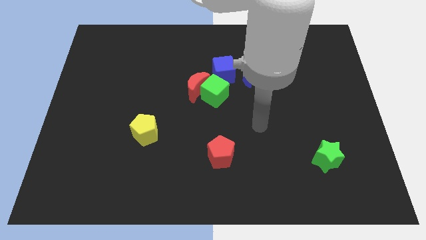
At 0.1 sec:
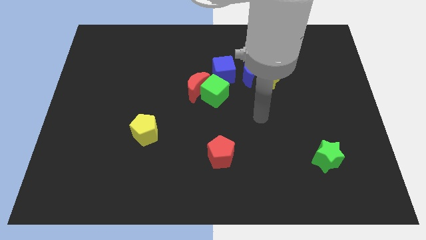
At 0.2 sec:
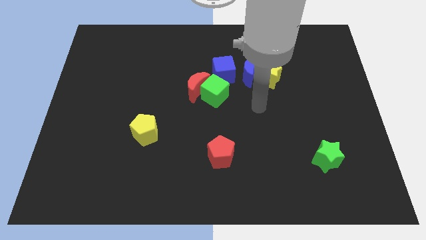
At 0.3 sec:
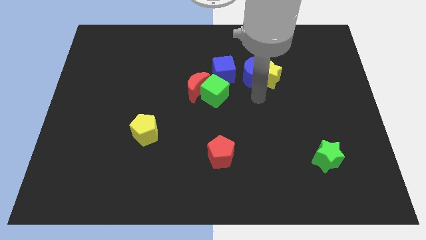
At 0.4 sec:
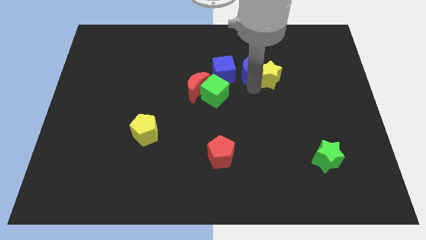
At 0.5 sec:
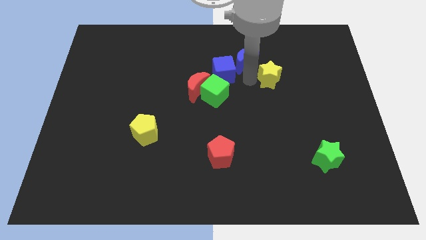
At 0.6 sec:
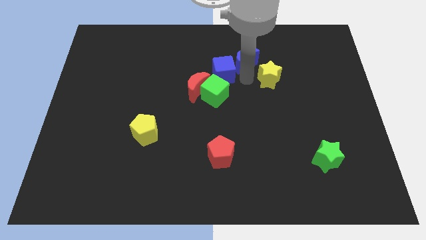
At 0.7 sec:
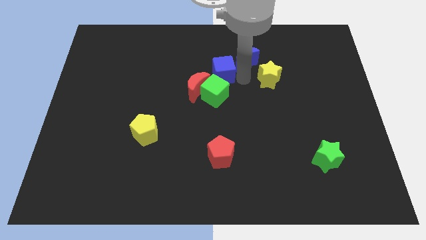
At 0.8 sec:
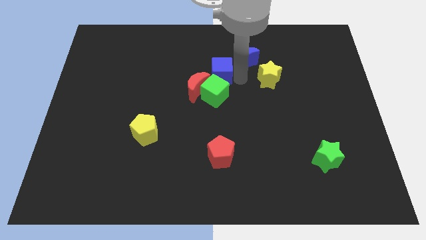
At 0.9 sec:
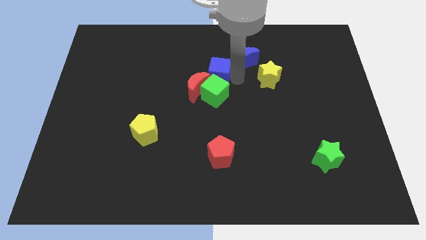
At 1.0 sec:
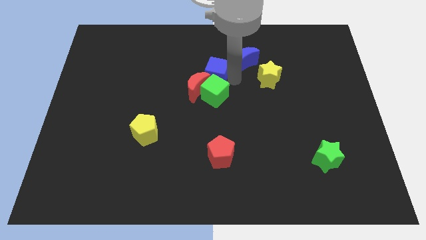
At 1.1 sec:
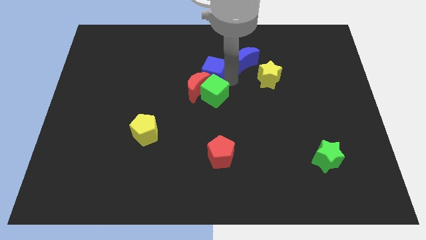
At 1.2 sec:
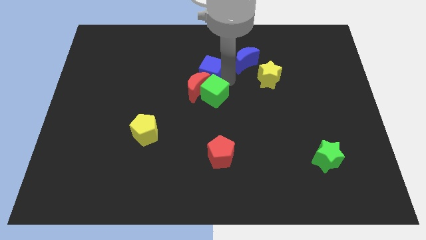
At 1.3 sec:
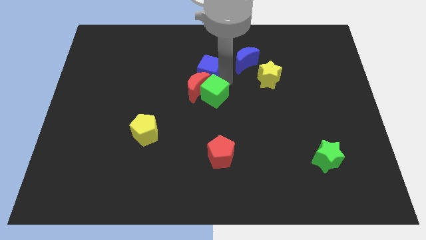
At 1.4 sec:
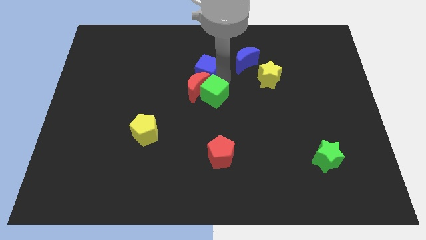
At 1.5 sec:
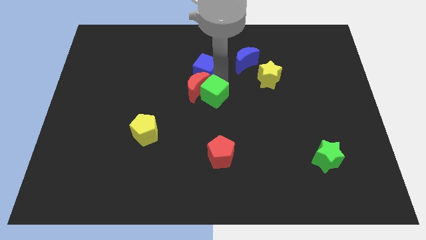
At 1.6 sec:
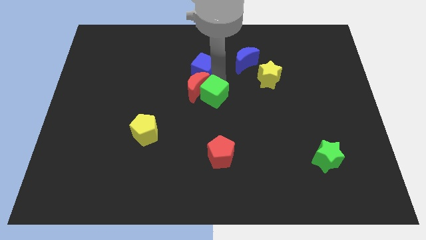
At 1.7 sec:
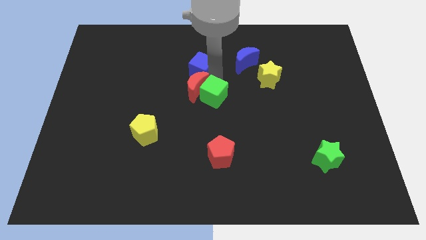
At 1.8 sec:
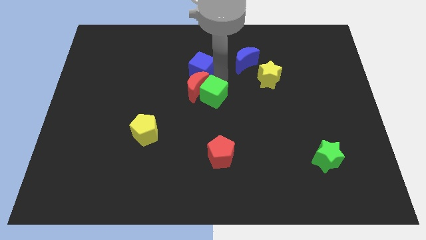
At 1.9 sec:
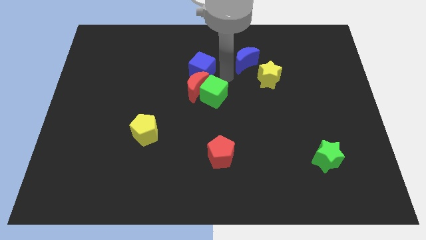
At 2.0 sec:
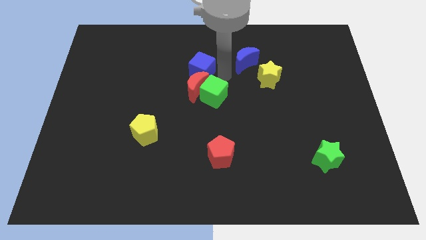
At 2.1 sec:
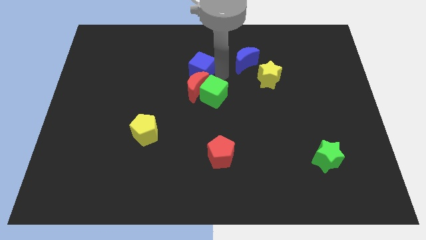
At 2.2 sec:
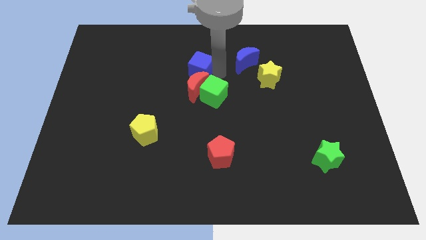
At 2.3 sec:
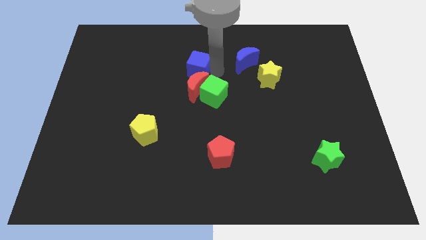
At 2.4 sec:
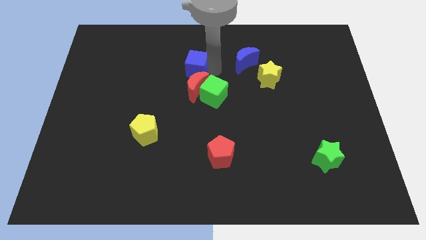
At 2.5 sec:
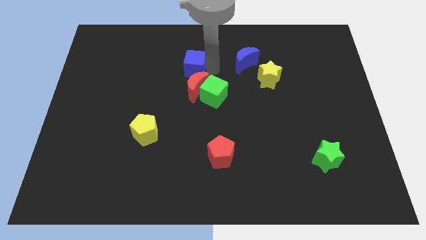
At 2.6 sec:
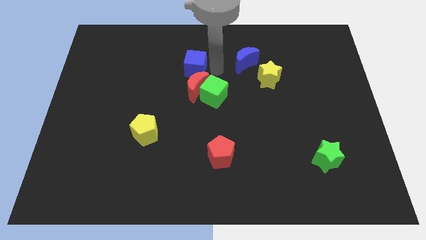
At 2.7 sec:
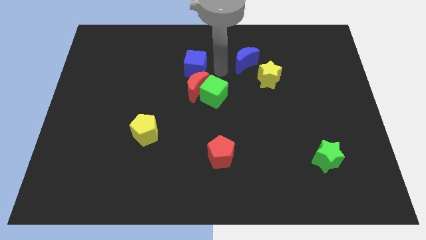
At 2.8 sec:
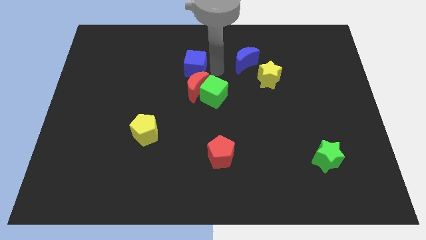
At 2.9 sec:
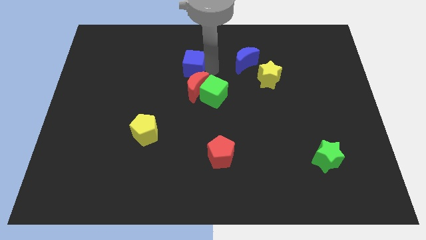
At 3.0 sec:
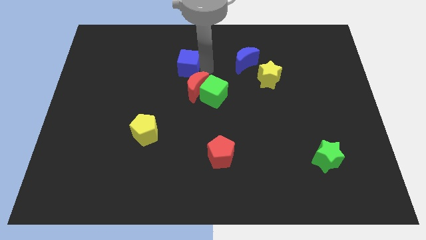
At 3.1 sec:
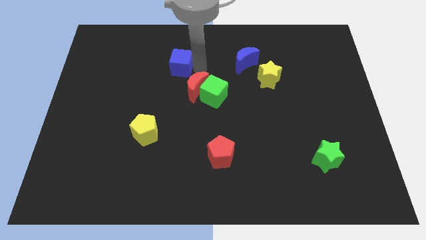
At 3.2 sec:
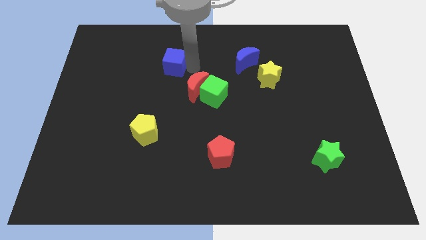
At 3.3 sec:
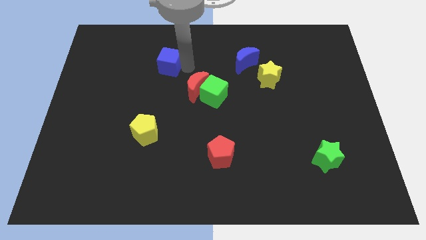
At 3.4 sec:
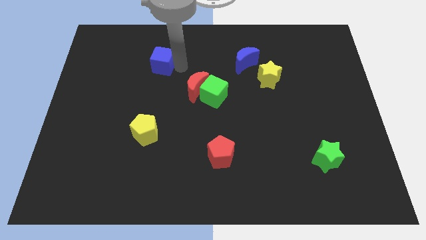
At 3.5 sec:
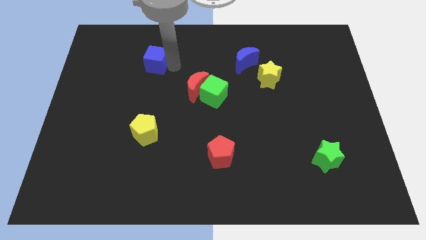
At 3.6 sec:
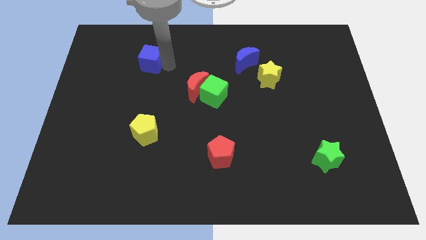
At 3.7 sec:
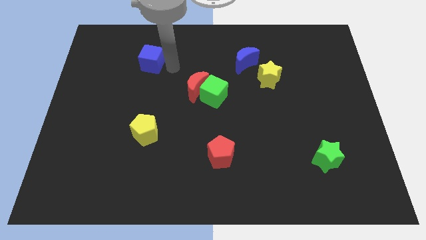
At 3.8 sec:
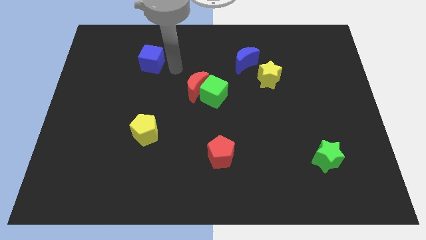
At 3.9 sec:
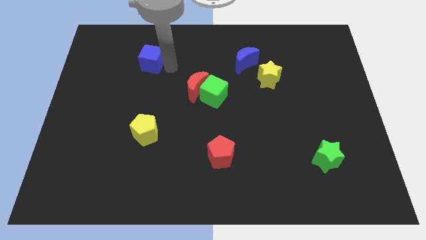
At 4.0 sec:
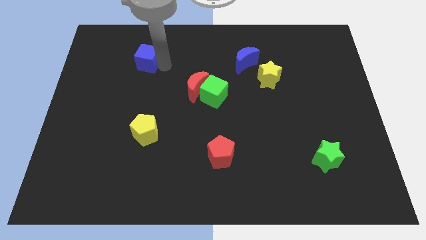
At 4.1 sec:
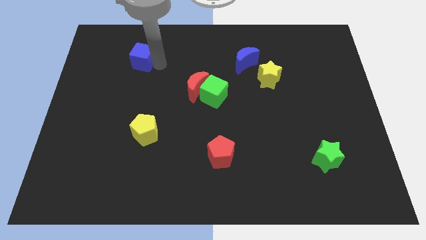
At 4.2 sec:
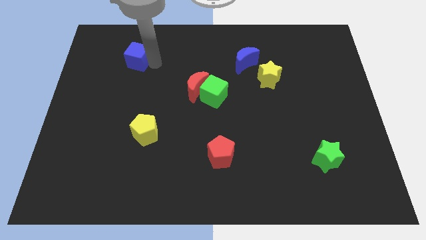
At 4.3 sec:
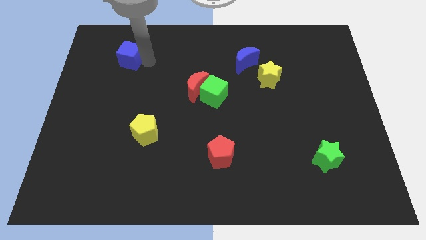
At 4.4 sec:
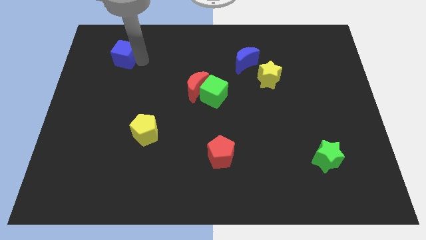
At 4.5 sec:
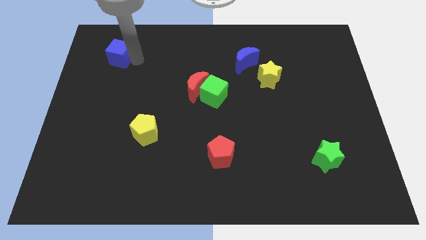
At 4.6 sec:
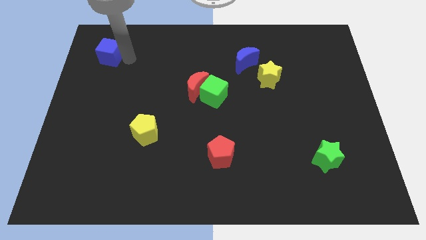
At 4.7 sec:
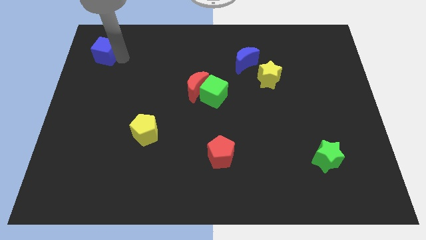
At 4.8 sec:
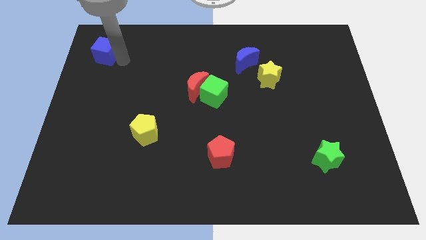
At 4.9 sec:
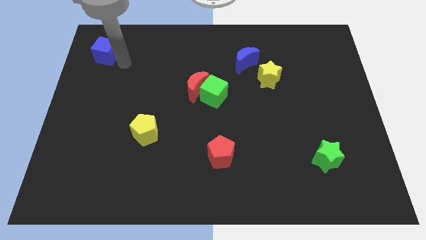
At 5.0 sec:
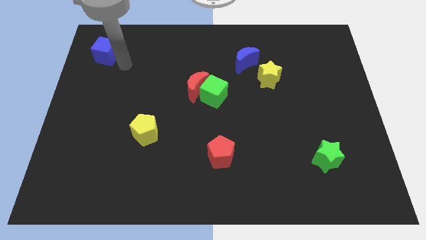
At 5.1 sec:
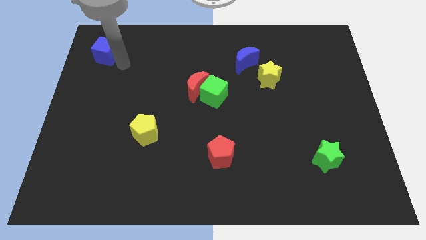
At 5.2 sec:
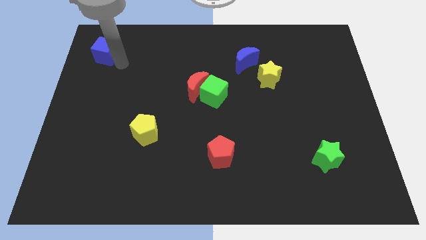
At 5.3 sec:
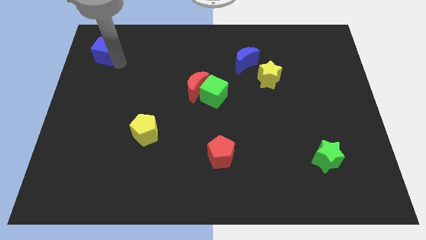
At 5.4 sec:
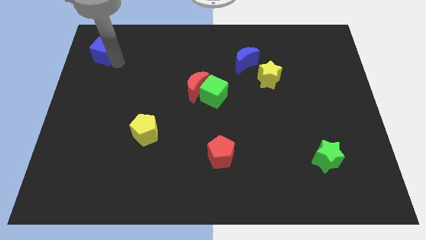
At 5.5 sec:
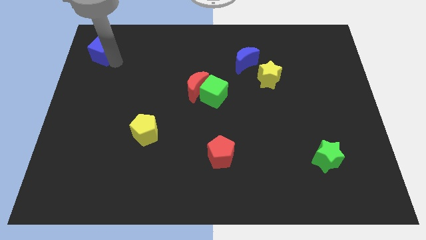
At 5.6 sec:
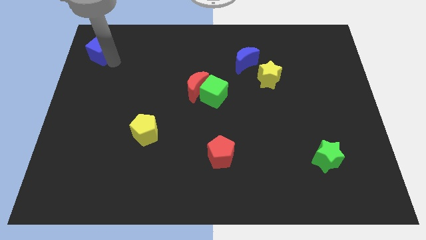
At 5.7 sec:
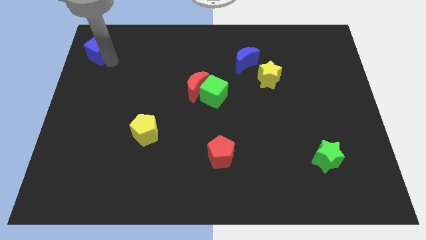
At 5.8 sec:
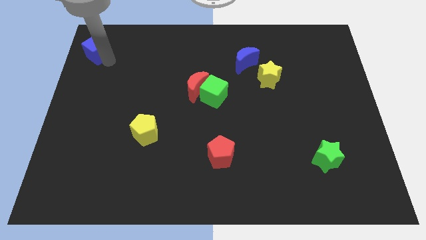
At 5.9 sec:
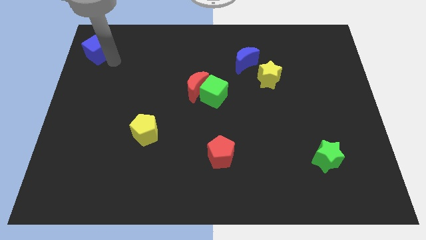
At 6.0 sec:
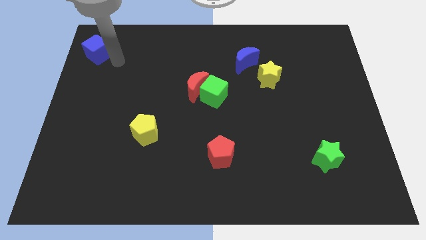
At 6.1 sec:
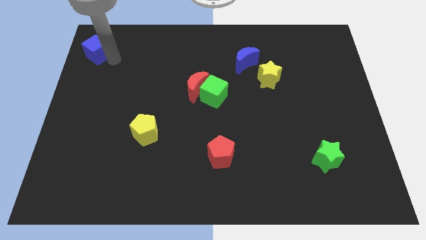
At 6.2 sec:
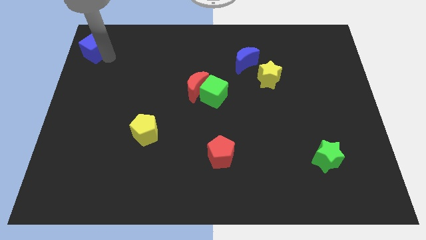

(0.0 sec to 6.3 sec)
push the blue cube to the upper left corner
